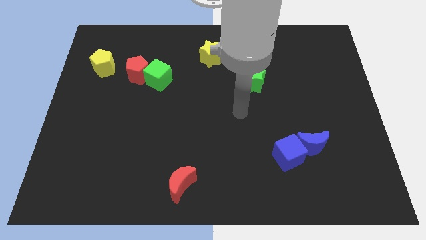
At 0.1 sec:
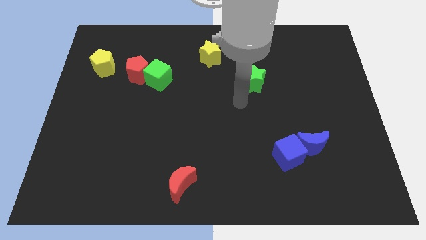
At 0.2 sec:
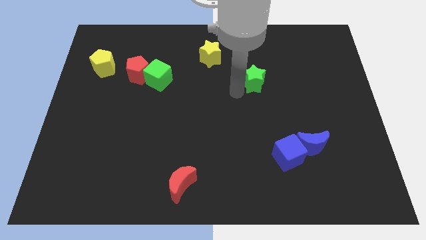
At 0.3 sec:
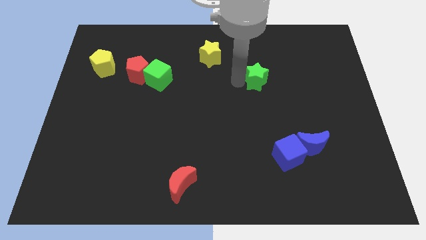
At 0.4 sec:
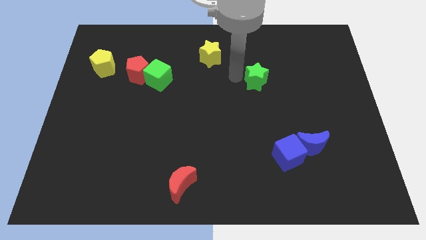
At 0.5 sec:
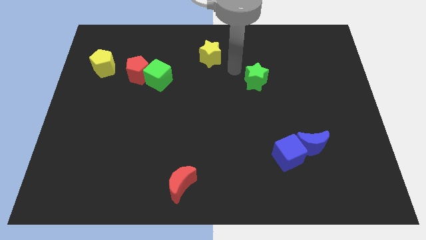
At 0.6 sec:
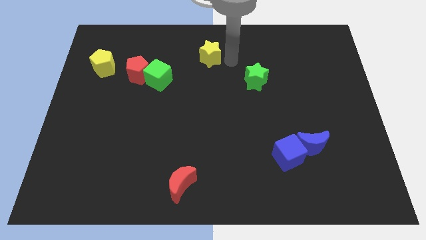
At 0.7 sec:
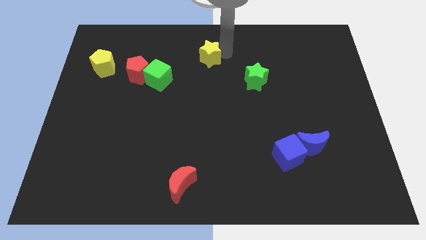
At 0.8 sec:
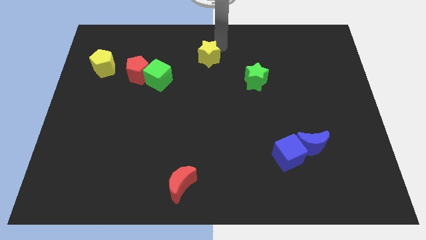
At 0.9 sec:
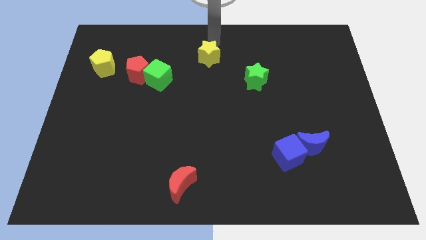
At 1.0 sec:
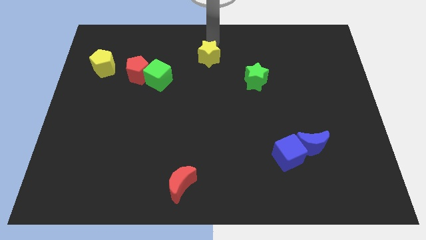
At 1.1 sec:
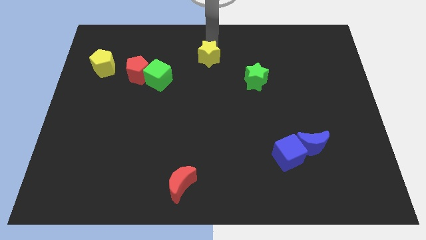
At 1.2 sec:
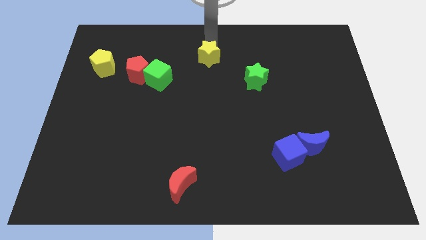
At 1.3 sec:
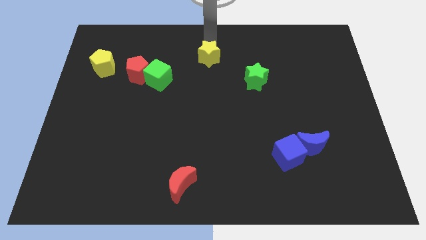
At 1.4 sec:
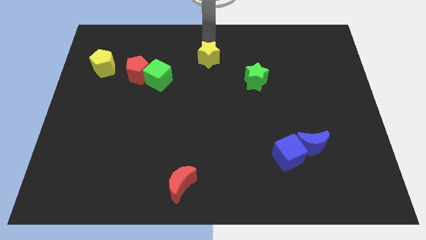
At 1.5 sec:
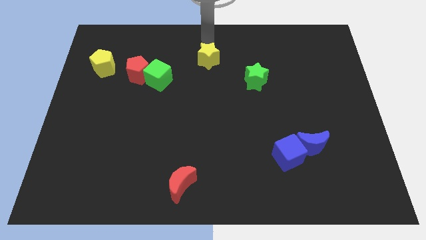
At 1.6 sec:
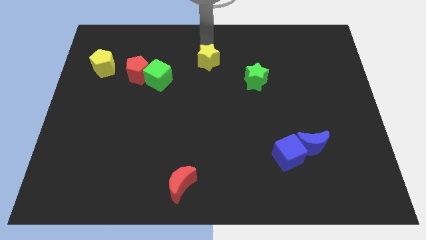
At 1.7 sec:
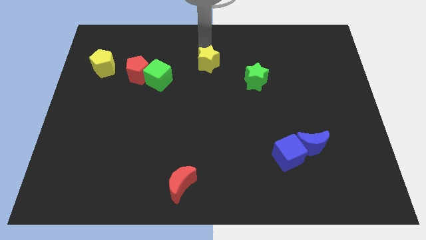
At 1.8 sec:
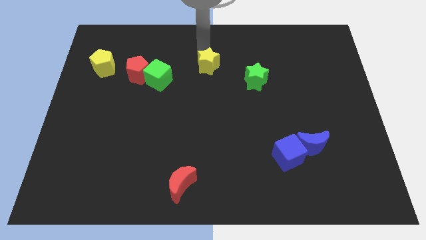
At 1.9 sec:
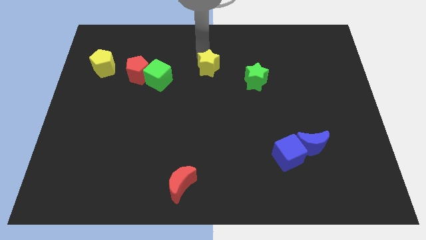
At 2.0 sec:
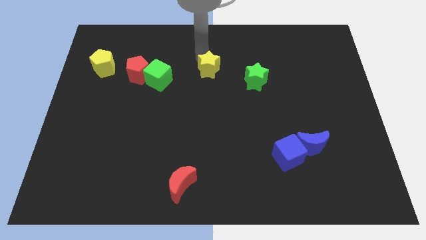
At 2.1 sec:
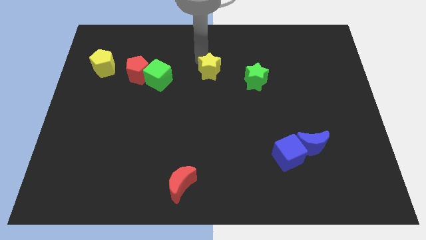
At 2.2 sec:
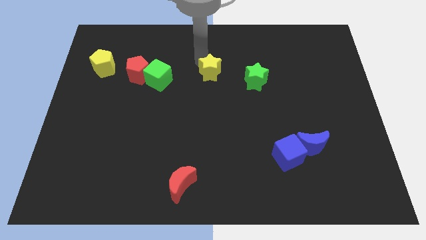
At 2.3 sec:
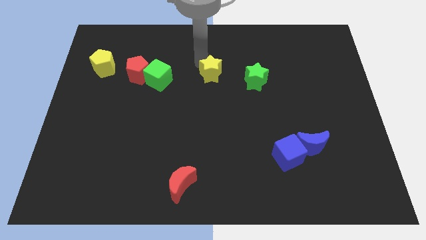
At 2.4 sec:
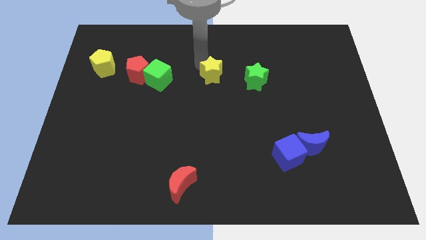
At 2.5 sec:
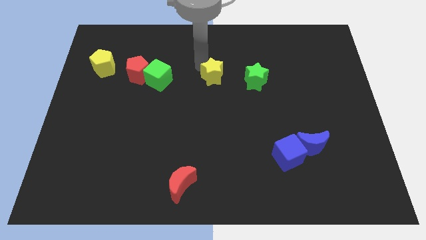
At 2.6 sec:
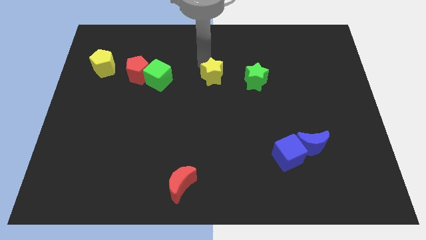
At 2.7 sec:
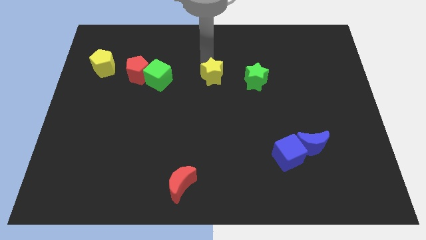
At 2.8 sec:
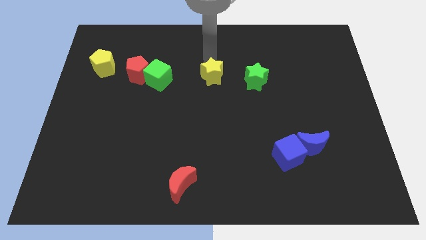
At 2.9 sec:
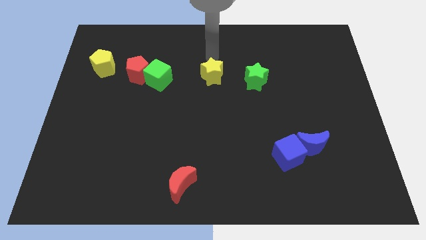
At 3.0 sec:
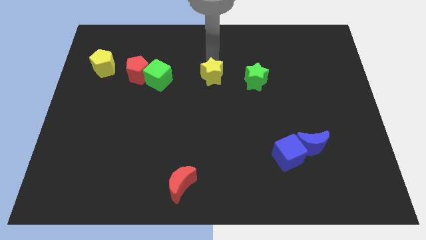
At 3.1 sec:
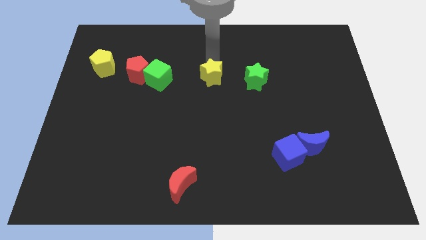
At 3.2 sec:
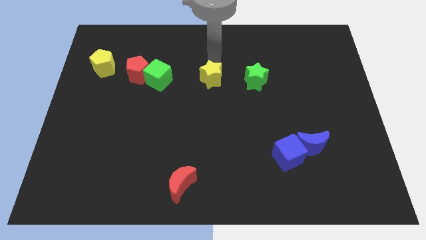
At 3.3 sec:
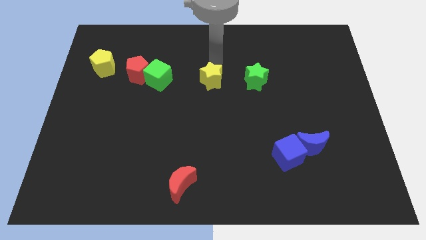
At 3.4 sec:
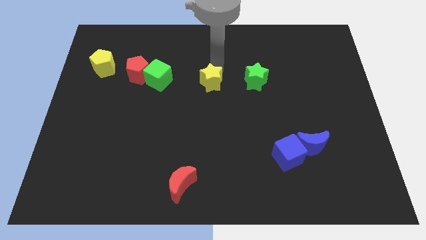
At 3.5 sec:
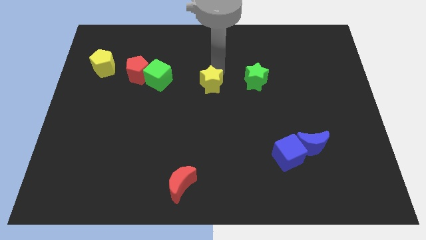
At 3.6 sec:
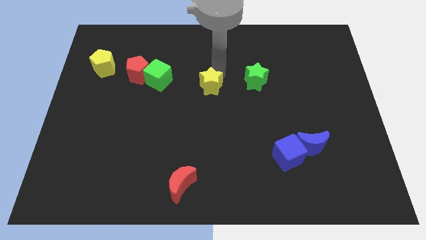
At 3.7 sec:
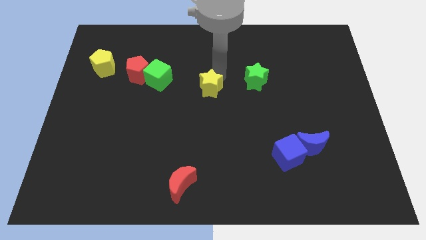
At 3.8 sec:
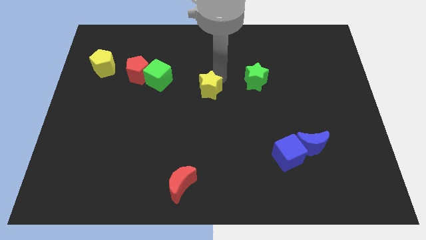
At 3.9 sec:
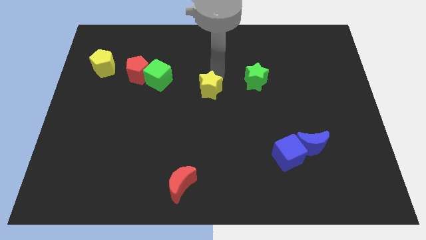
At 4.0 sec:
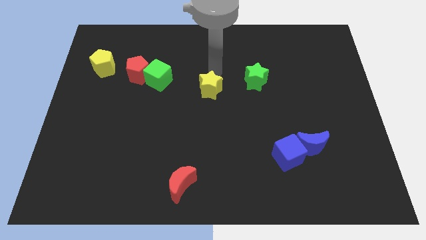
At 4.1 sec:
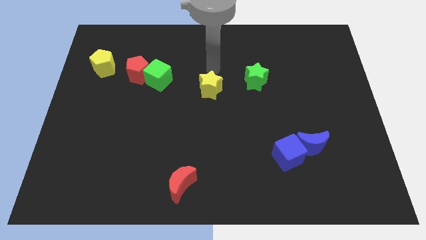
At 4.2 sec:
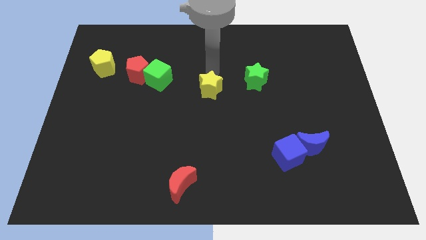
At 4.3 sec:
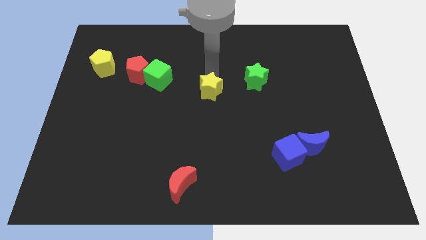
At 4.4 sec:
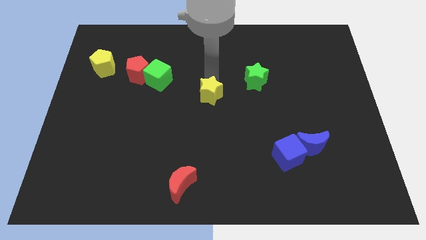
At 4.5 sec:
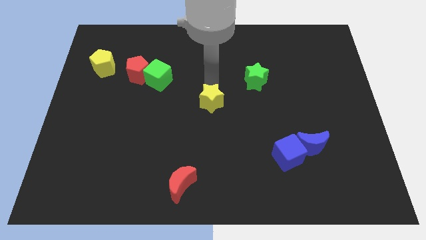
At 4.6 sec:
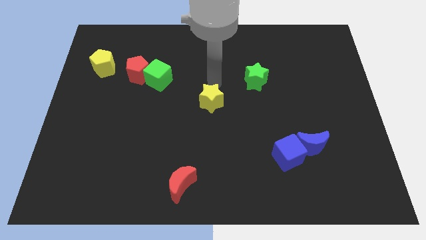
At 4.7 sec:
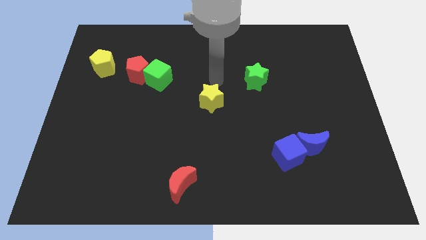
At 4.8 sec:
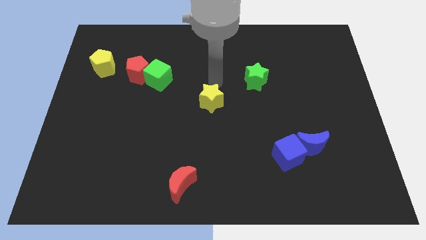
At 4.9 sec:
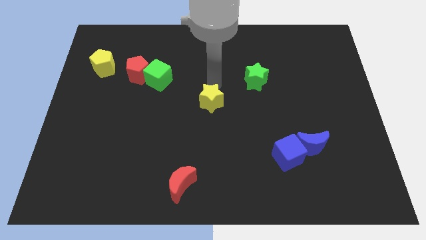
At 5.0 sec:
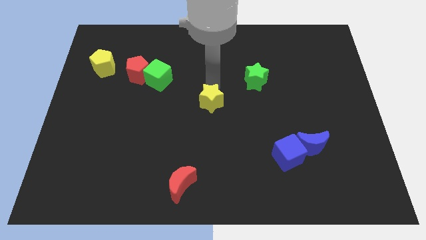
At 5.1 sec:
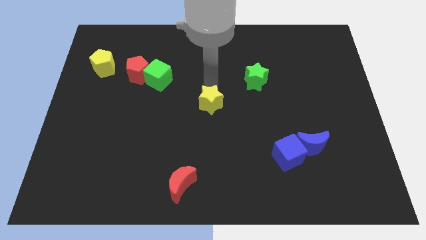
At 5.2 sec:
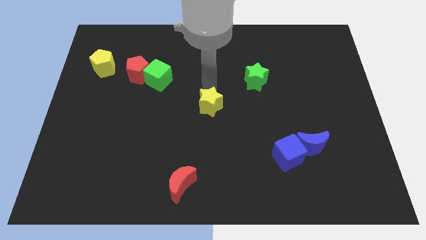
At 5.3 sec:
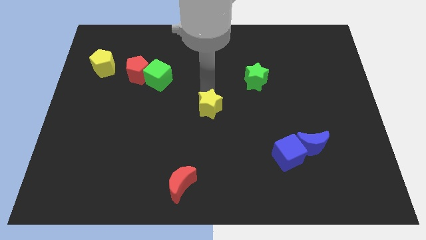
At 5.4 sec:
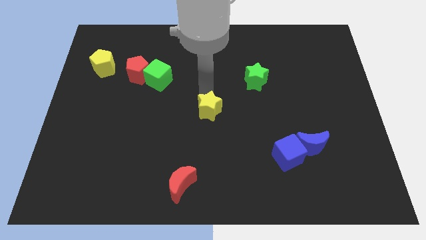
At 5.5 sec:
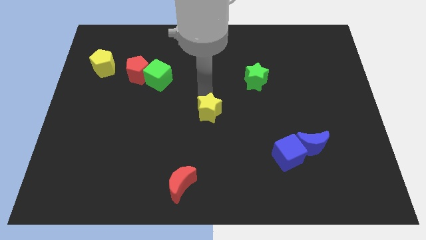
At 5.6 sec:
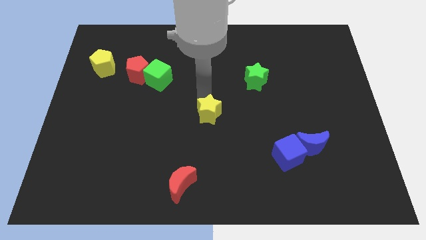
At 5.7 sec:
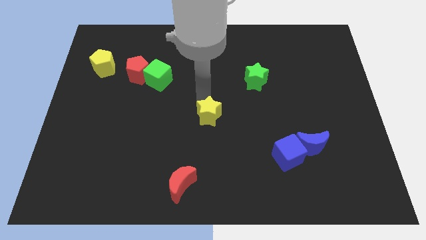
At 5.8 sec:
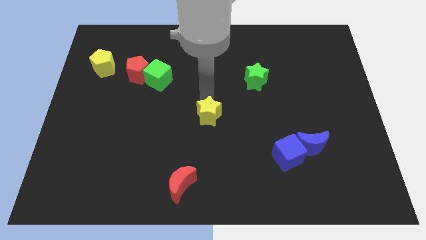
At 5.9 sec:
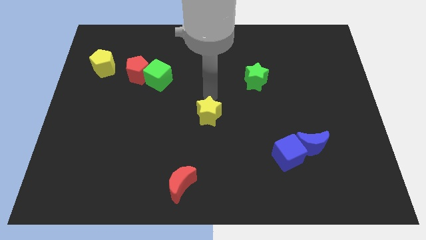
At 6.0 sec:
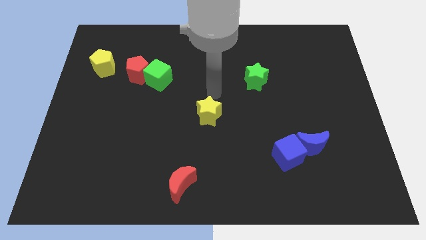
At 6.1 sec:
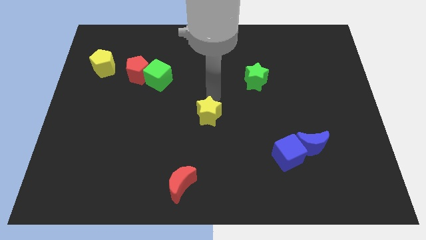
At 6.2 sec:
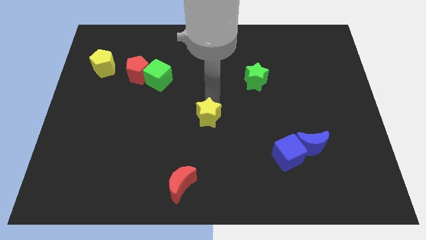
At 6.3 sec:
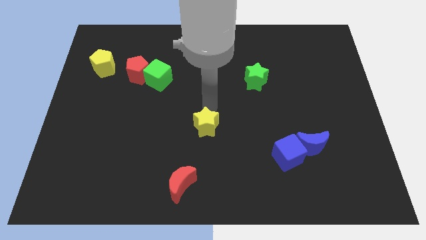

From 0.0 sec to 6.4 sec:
slide the yellow star down

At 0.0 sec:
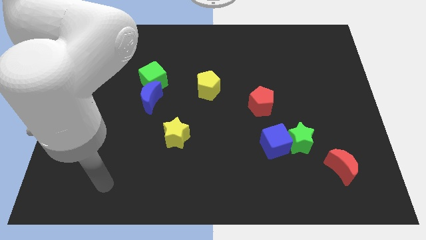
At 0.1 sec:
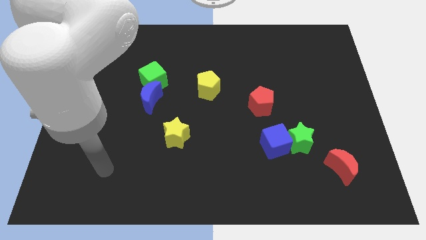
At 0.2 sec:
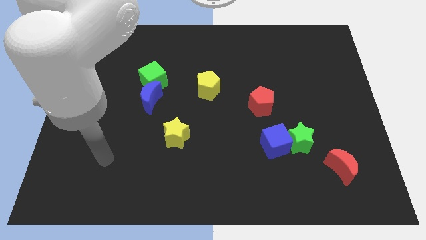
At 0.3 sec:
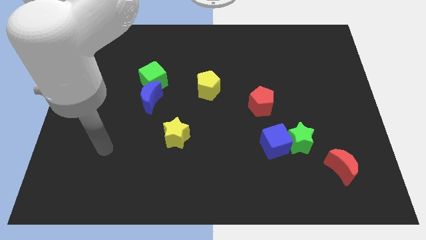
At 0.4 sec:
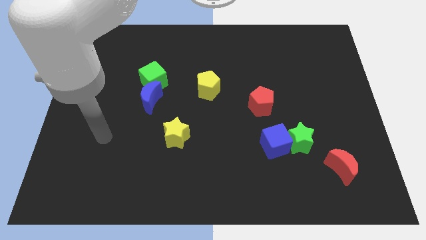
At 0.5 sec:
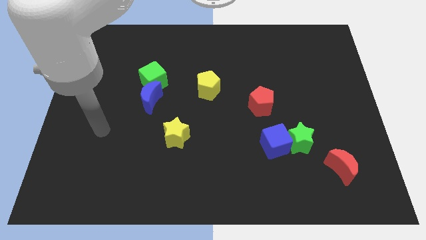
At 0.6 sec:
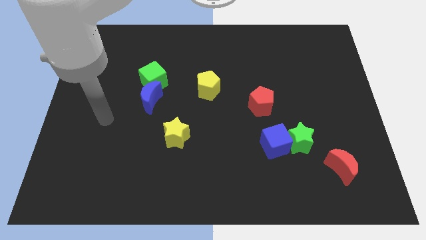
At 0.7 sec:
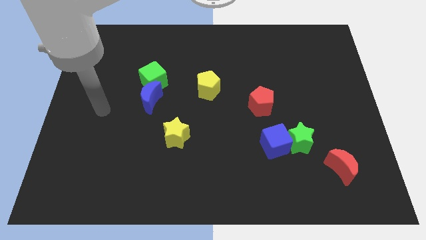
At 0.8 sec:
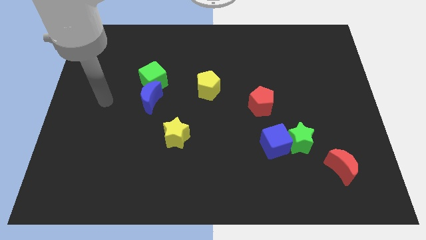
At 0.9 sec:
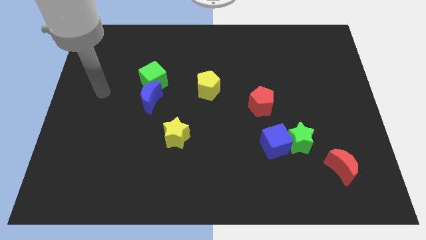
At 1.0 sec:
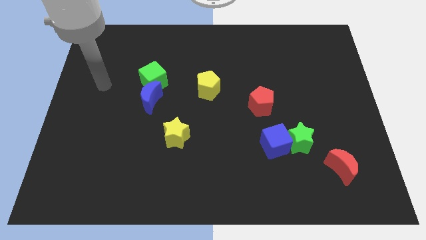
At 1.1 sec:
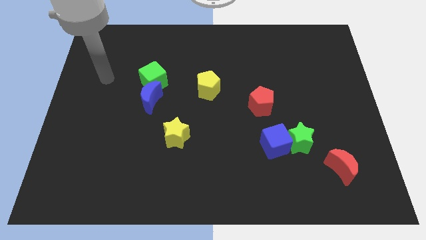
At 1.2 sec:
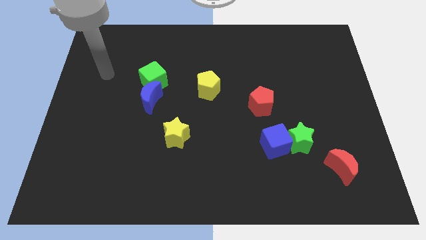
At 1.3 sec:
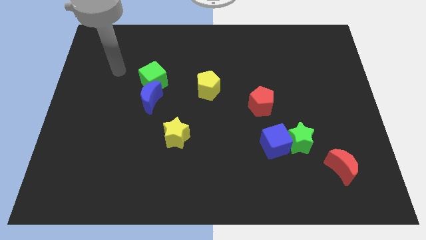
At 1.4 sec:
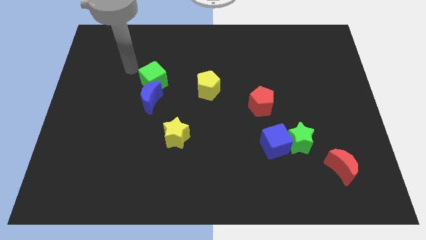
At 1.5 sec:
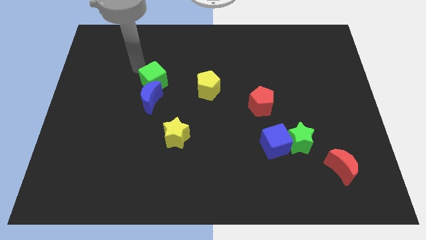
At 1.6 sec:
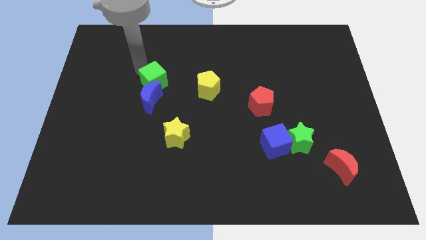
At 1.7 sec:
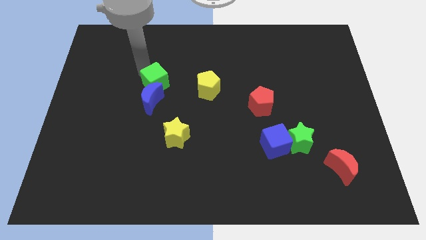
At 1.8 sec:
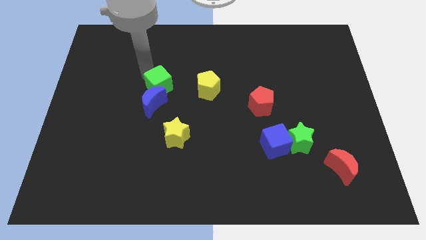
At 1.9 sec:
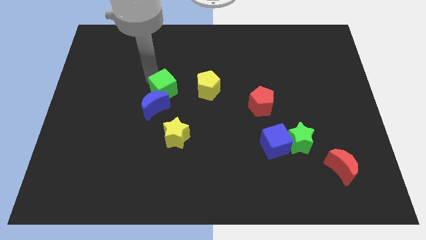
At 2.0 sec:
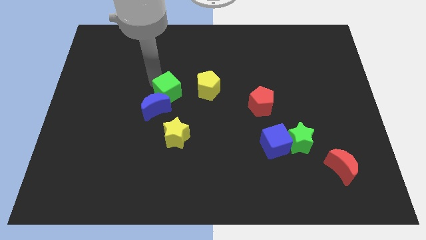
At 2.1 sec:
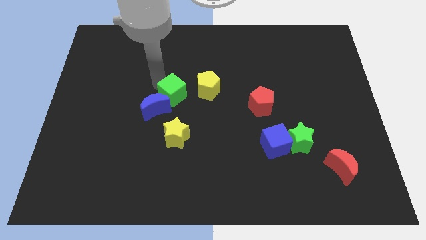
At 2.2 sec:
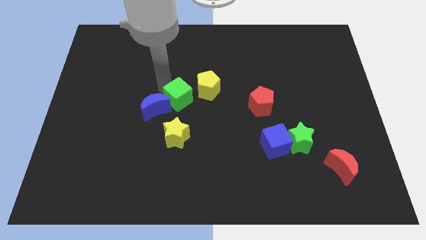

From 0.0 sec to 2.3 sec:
push the green cube slightly down and right diagonally
